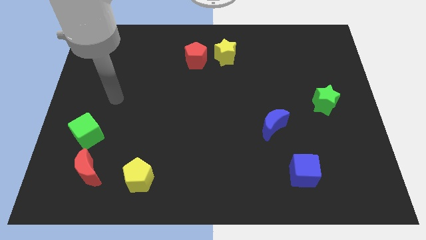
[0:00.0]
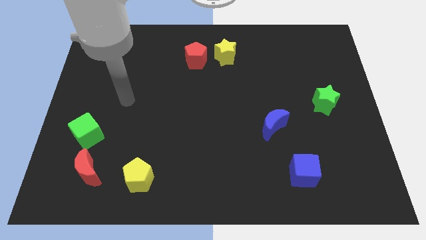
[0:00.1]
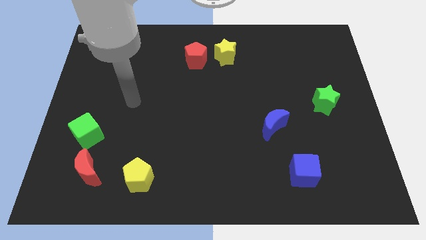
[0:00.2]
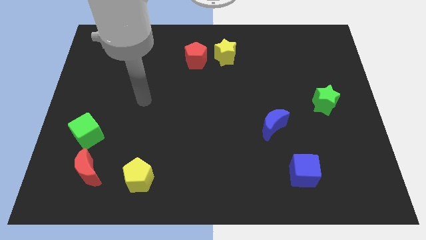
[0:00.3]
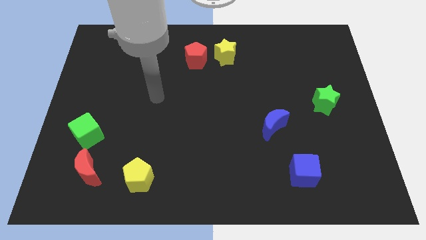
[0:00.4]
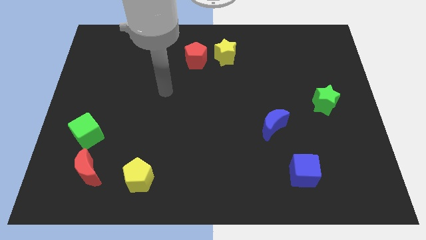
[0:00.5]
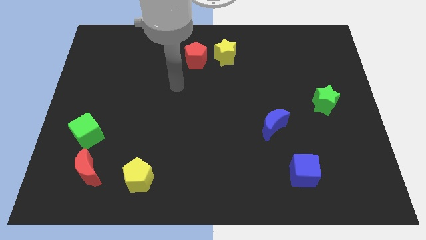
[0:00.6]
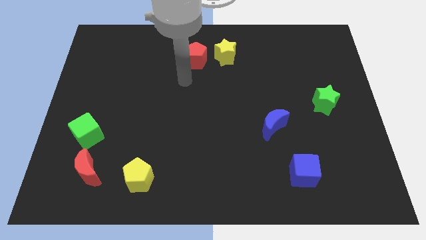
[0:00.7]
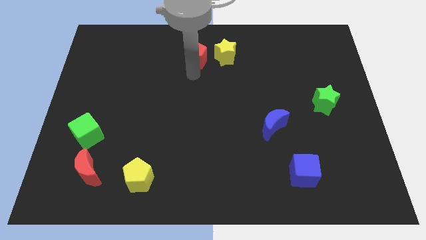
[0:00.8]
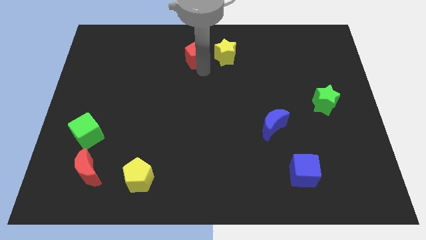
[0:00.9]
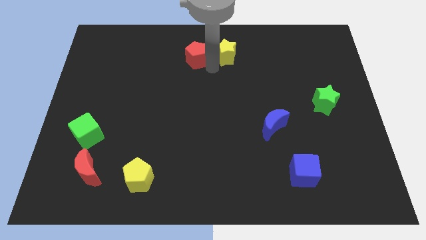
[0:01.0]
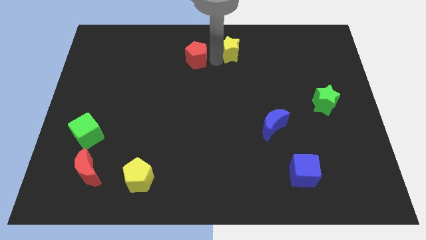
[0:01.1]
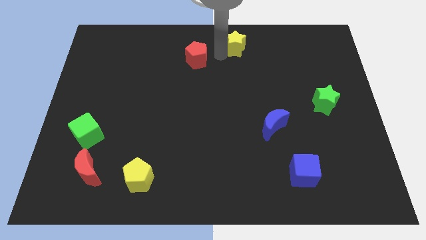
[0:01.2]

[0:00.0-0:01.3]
move the red pentagon away from the yellow star

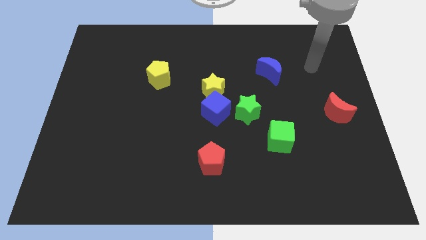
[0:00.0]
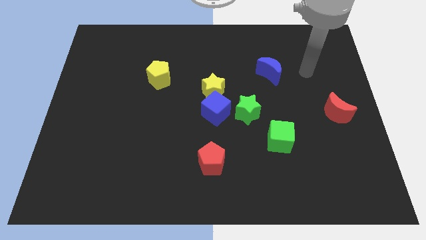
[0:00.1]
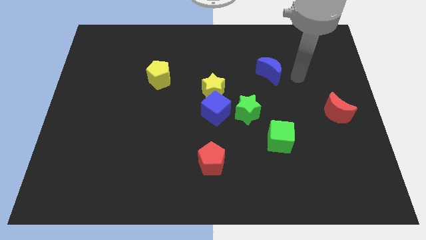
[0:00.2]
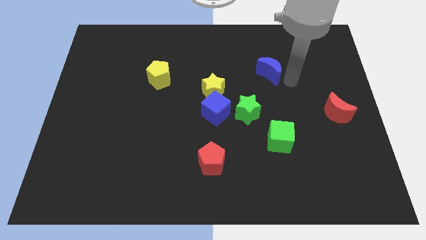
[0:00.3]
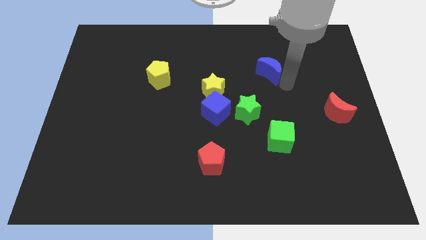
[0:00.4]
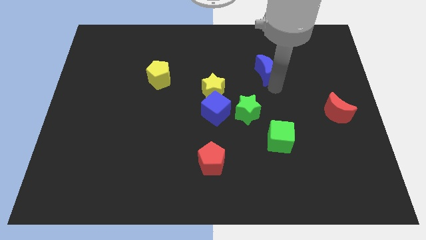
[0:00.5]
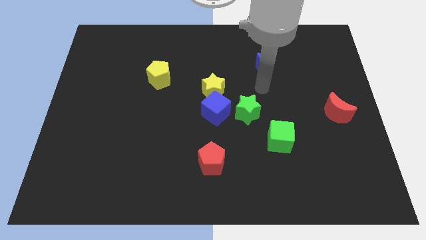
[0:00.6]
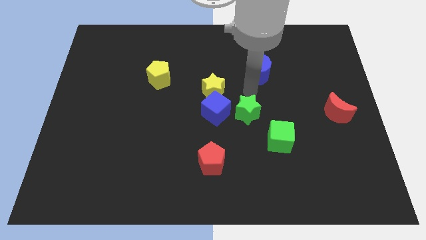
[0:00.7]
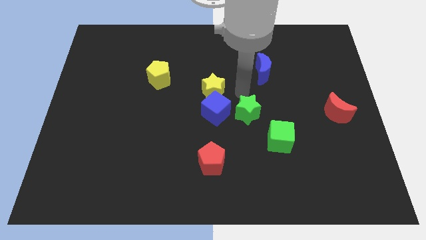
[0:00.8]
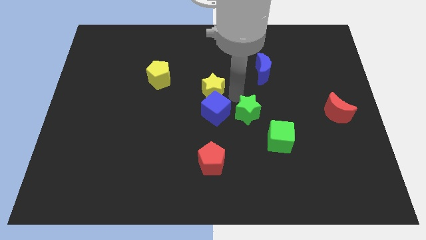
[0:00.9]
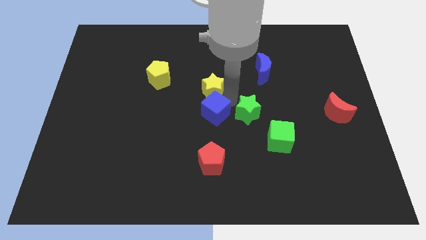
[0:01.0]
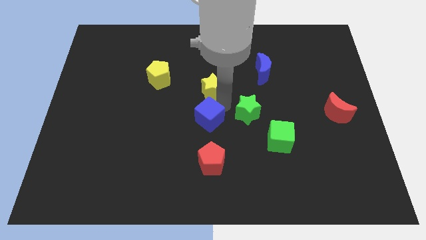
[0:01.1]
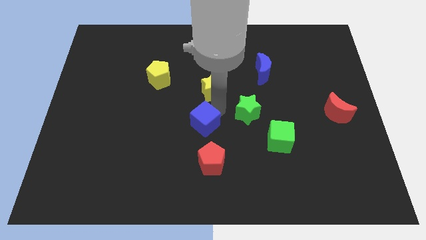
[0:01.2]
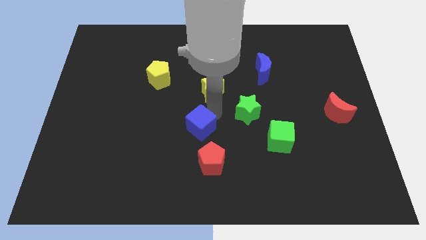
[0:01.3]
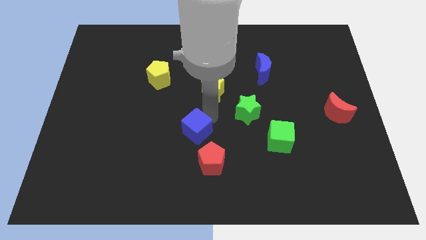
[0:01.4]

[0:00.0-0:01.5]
pull the blue cube apart from the yellow star and green star

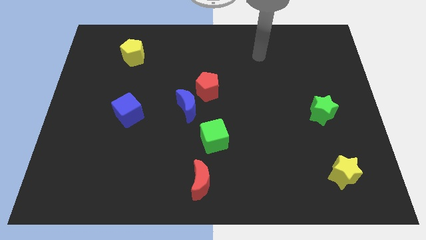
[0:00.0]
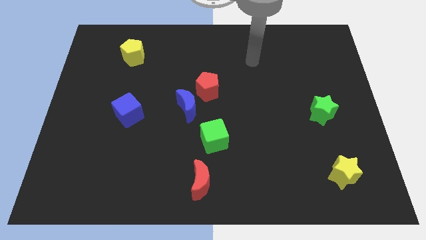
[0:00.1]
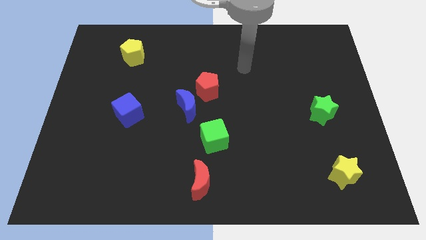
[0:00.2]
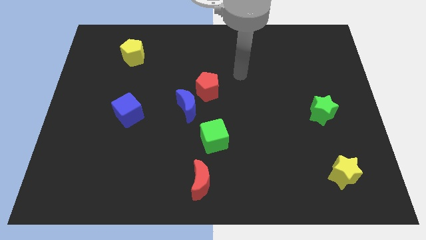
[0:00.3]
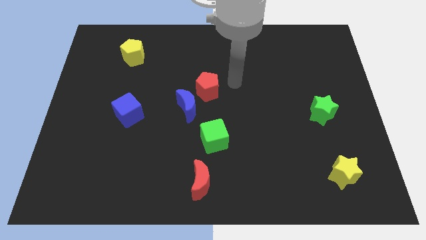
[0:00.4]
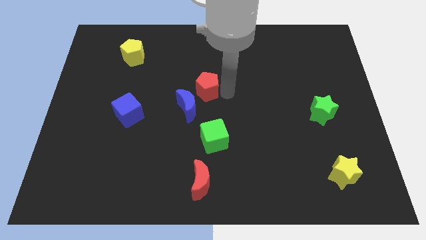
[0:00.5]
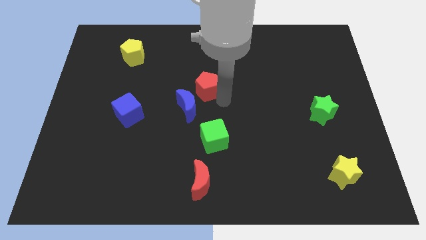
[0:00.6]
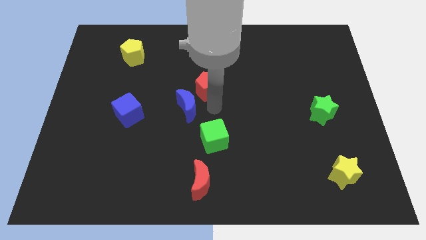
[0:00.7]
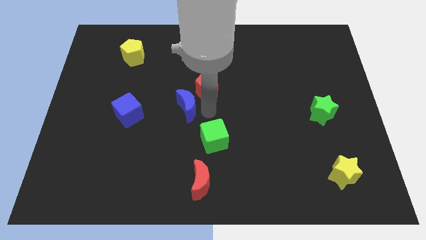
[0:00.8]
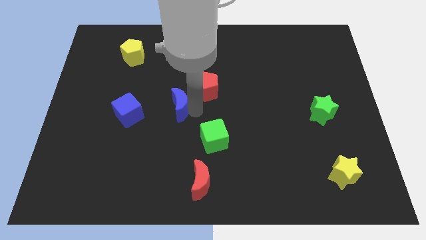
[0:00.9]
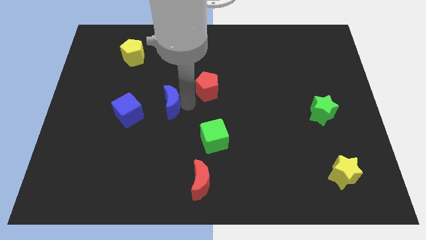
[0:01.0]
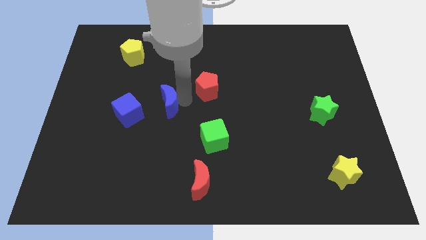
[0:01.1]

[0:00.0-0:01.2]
pull the red pentagon apart from the blue moon

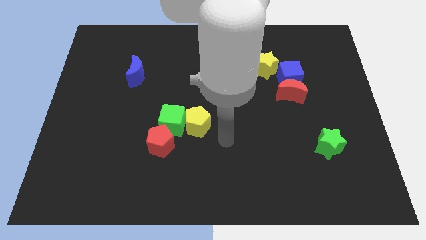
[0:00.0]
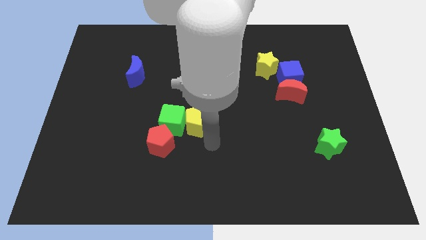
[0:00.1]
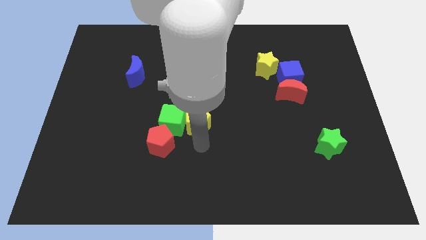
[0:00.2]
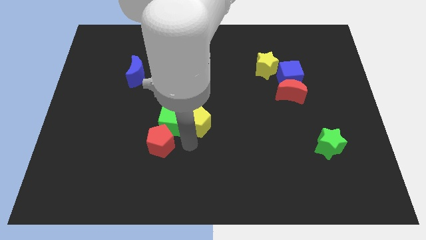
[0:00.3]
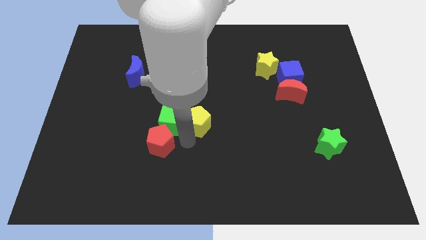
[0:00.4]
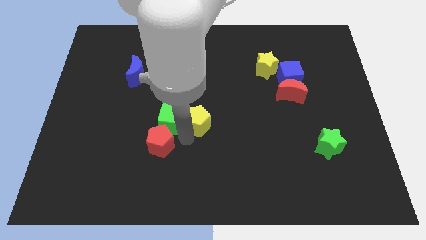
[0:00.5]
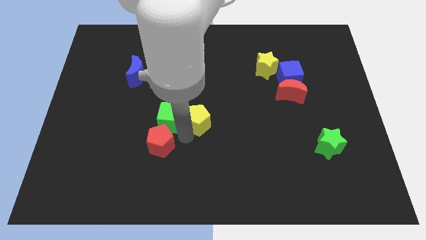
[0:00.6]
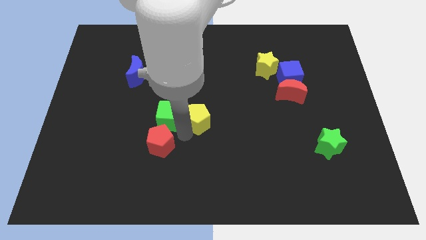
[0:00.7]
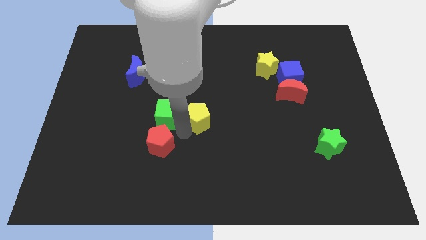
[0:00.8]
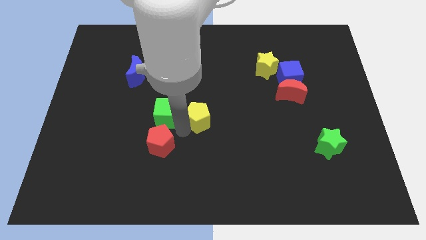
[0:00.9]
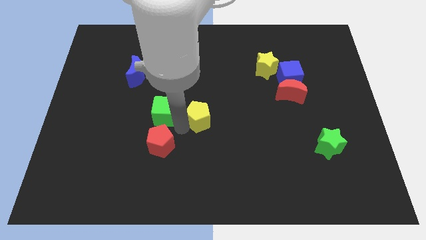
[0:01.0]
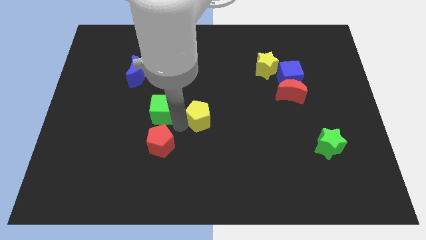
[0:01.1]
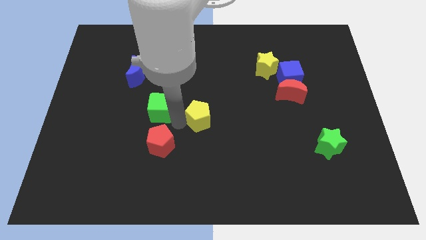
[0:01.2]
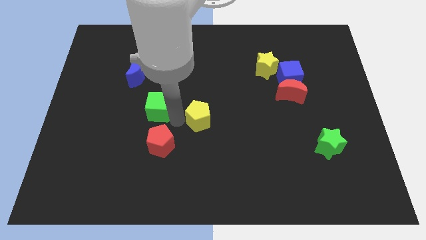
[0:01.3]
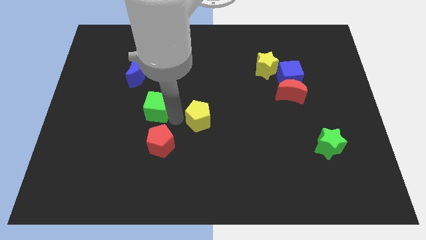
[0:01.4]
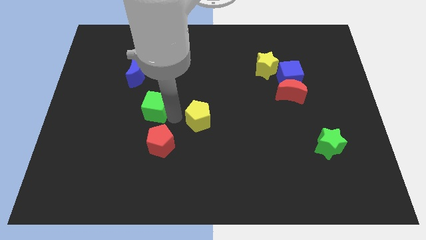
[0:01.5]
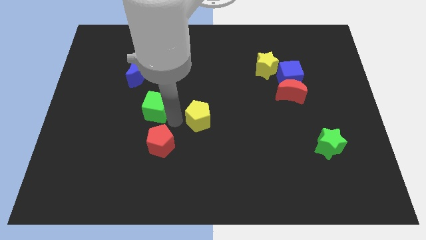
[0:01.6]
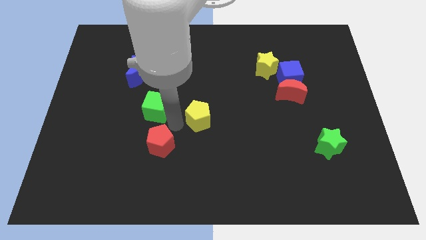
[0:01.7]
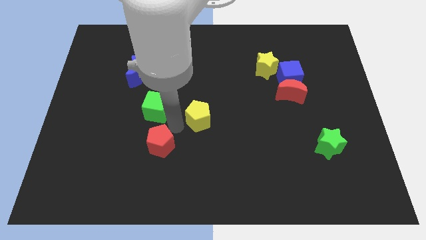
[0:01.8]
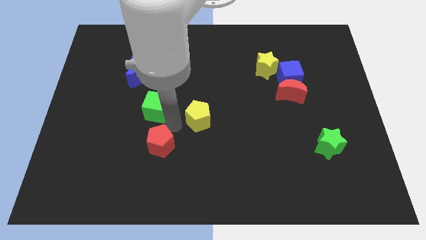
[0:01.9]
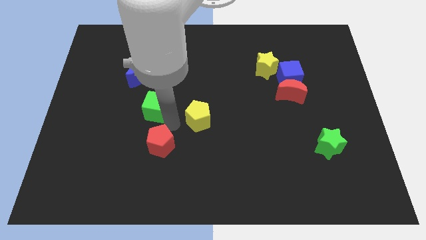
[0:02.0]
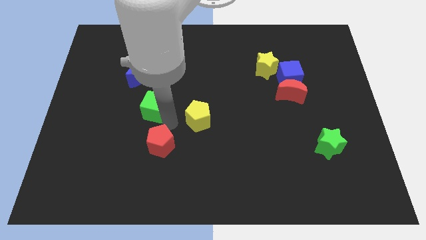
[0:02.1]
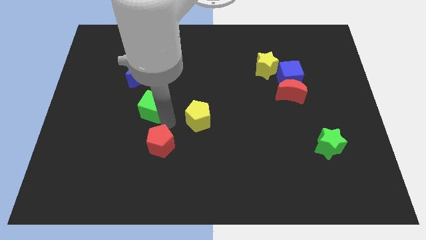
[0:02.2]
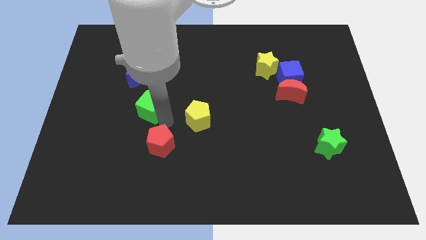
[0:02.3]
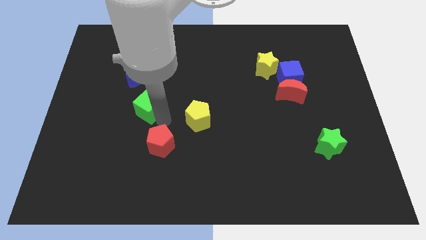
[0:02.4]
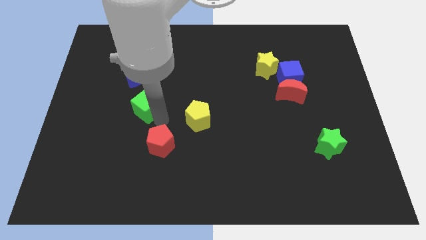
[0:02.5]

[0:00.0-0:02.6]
pull the green cube apart from the yellow pentagon and red pentagon

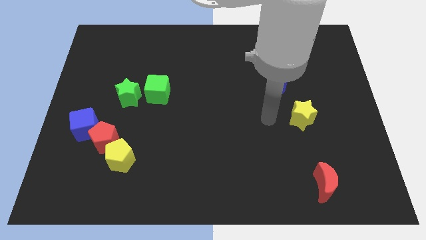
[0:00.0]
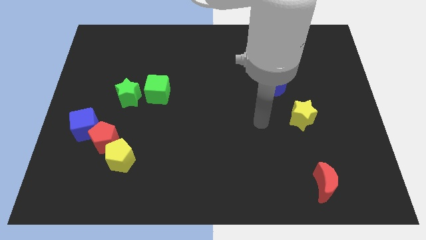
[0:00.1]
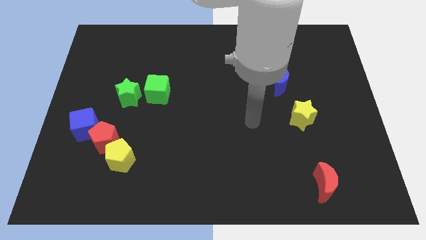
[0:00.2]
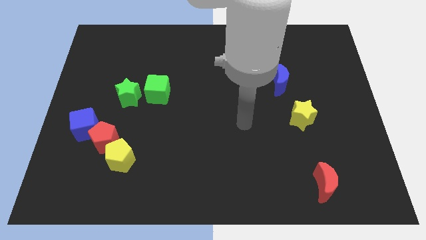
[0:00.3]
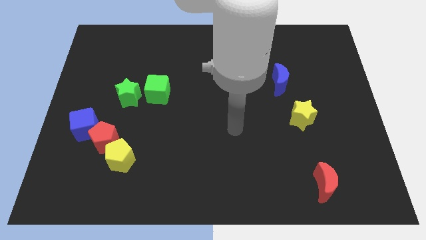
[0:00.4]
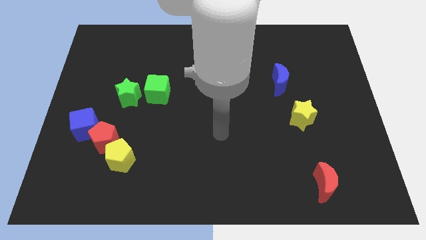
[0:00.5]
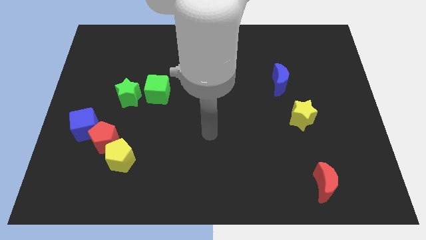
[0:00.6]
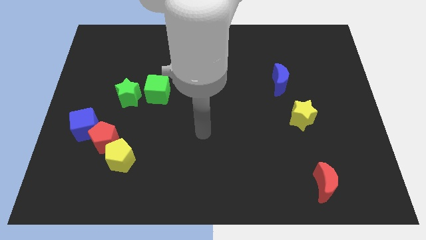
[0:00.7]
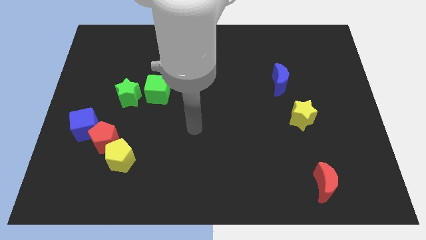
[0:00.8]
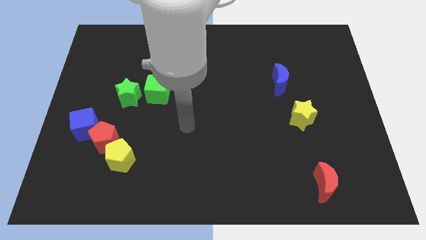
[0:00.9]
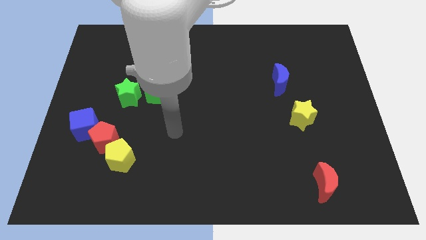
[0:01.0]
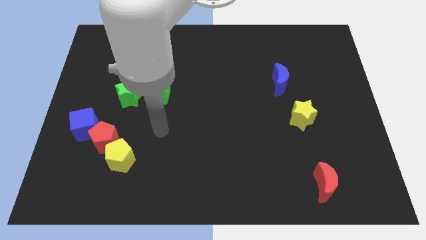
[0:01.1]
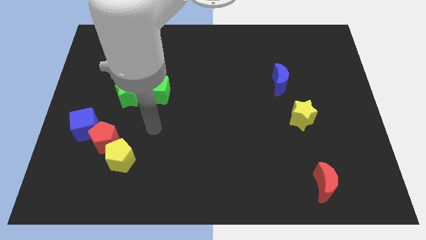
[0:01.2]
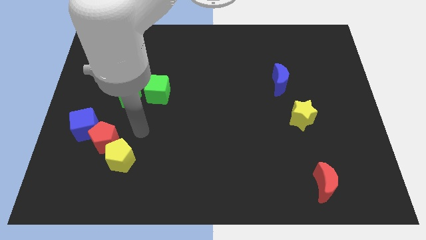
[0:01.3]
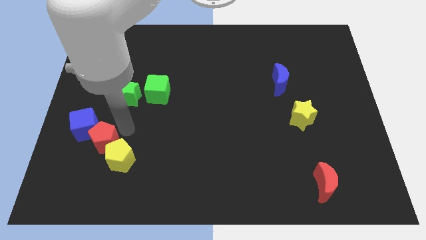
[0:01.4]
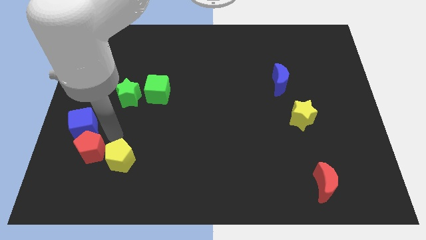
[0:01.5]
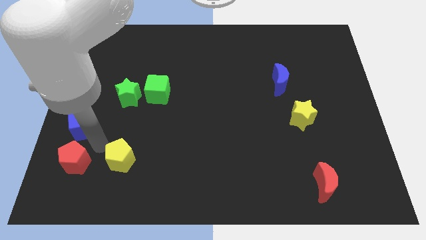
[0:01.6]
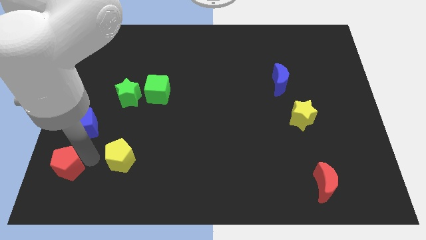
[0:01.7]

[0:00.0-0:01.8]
move the yellow pentagon away from the red pentagon

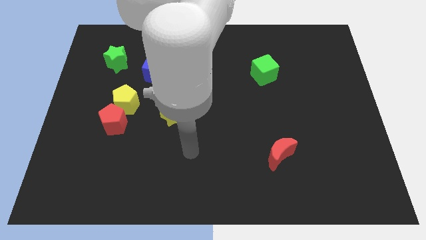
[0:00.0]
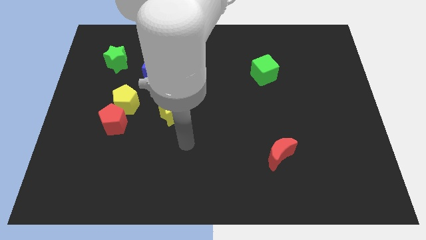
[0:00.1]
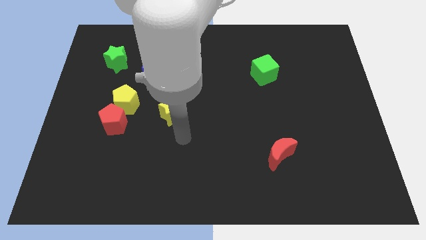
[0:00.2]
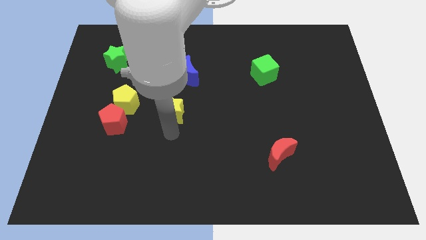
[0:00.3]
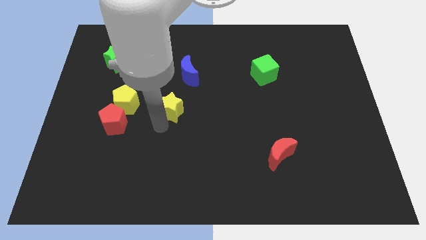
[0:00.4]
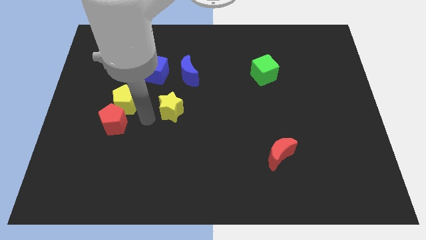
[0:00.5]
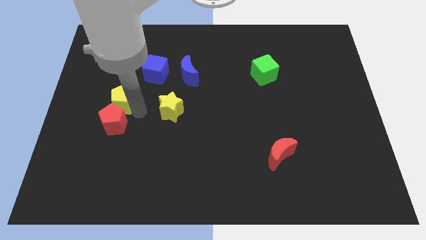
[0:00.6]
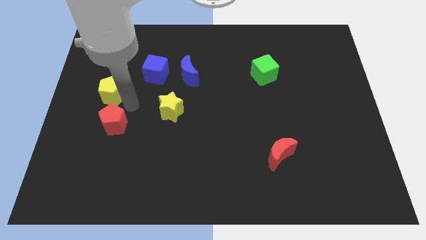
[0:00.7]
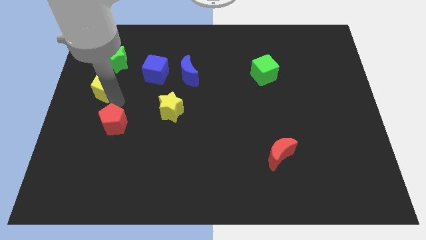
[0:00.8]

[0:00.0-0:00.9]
pull the red pentagon apart from the yellow pentagon
